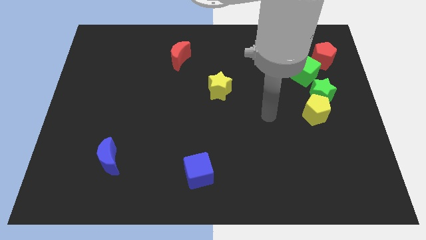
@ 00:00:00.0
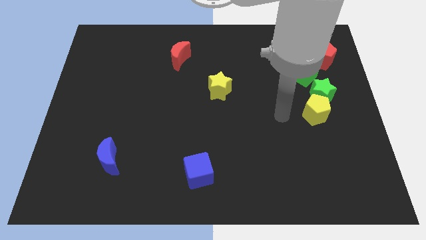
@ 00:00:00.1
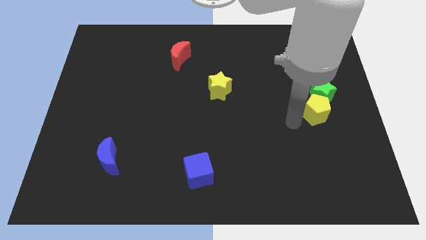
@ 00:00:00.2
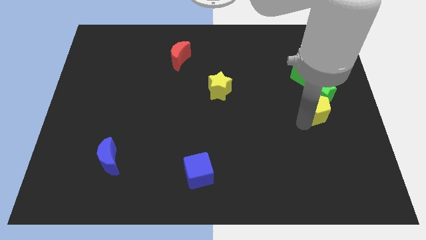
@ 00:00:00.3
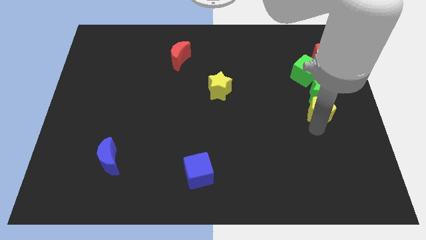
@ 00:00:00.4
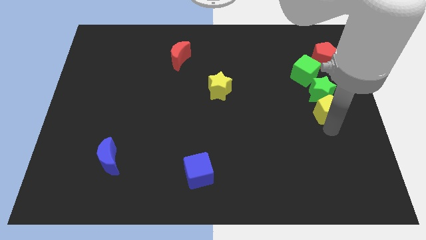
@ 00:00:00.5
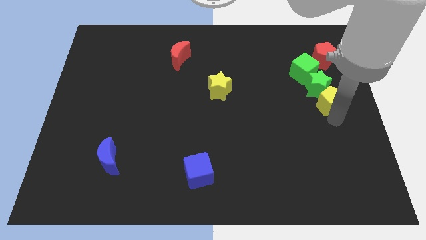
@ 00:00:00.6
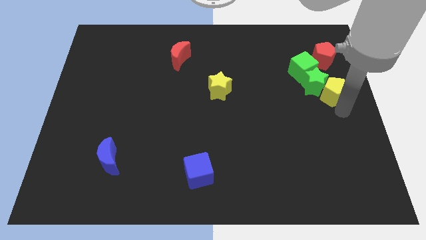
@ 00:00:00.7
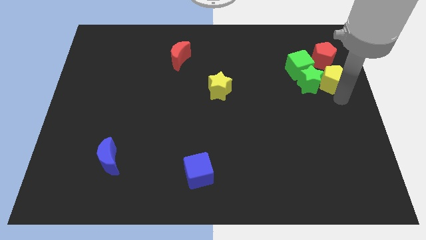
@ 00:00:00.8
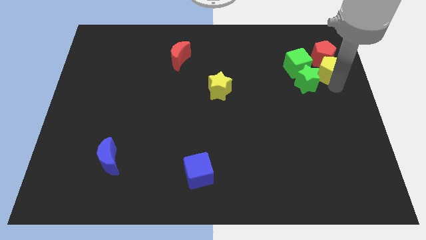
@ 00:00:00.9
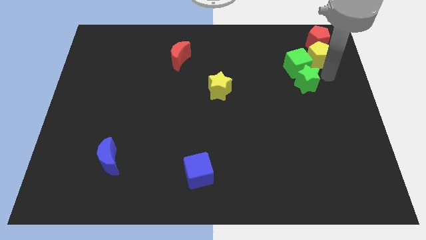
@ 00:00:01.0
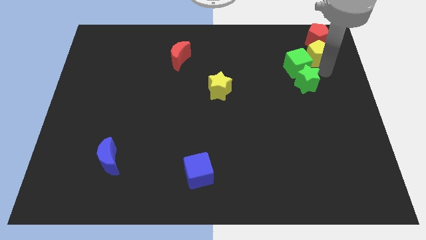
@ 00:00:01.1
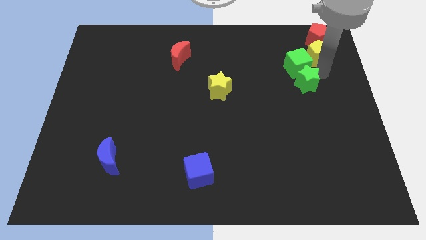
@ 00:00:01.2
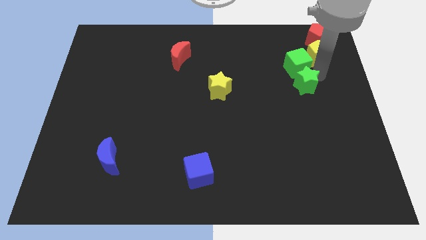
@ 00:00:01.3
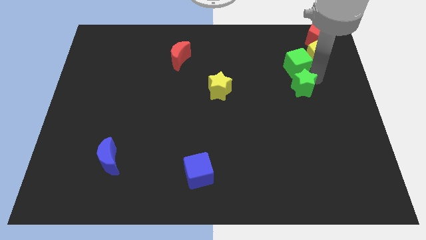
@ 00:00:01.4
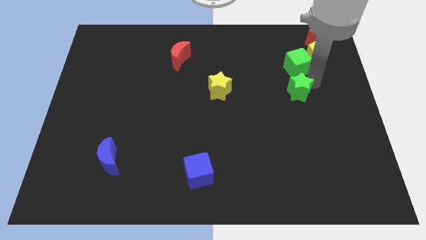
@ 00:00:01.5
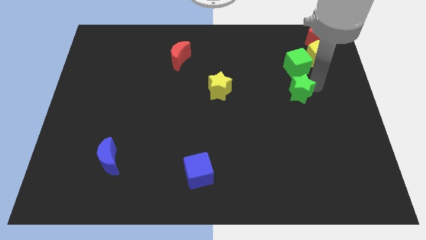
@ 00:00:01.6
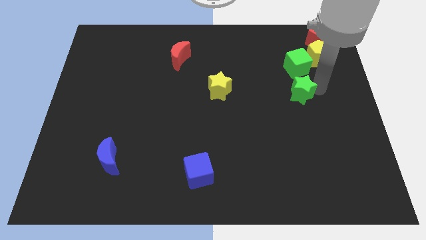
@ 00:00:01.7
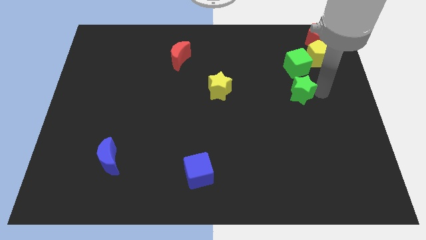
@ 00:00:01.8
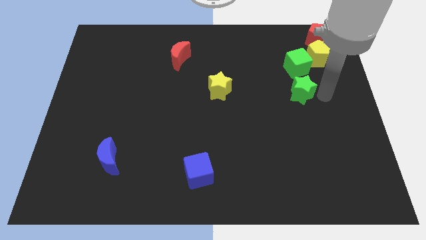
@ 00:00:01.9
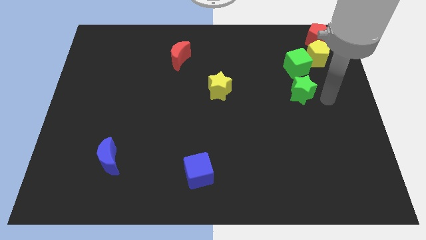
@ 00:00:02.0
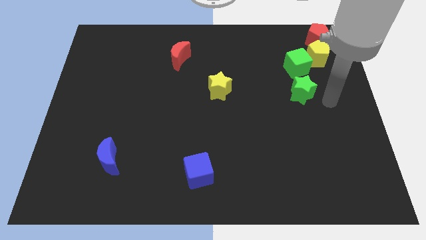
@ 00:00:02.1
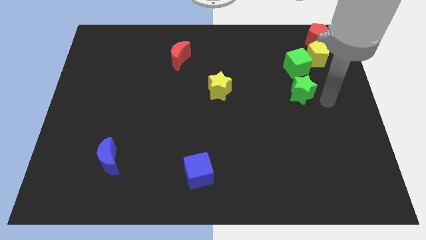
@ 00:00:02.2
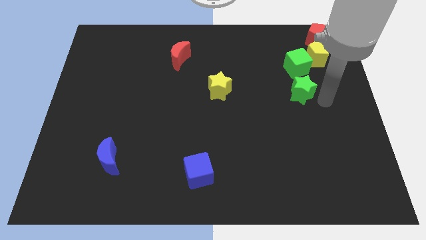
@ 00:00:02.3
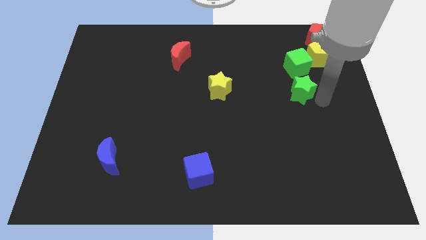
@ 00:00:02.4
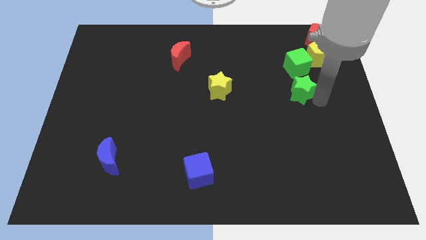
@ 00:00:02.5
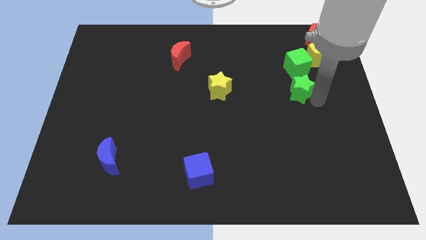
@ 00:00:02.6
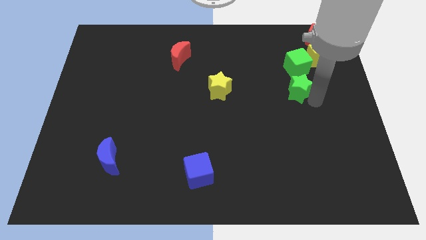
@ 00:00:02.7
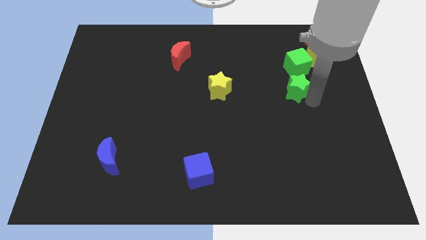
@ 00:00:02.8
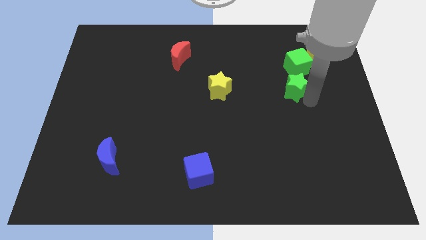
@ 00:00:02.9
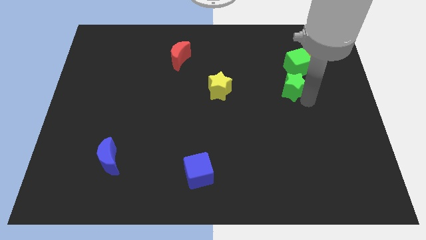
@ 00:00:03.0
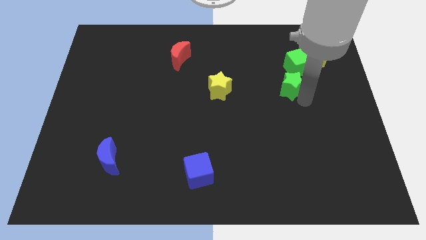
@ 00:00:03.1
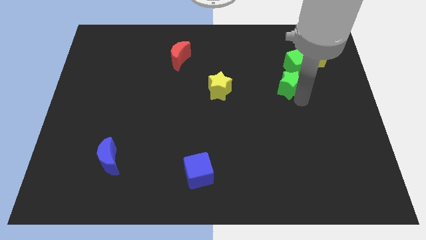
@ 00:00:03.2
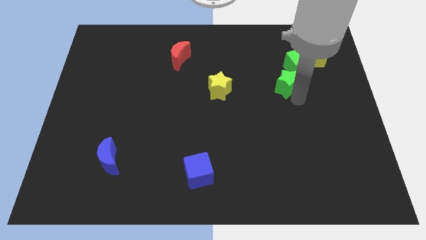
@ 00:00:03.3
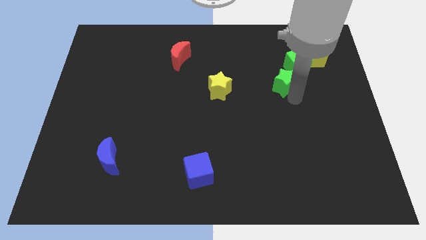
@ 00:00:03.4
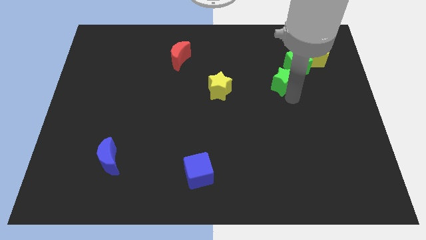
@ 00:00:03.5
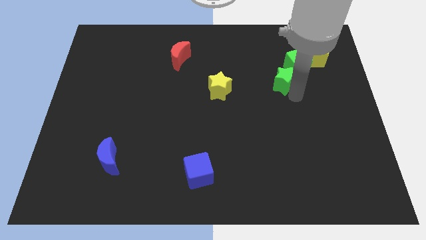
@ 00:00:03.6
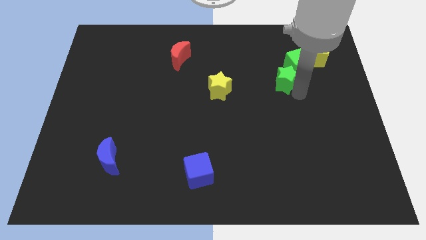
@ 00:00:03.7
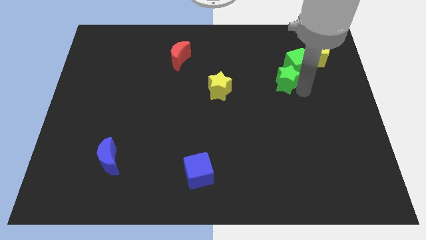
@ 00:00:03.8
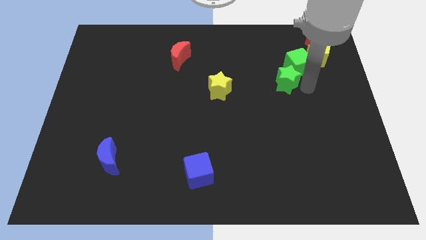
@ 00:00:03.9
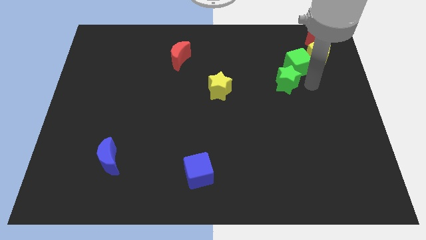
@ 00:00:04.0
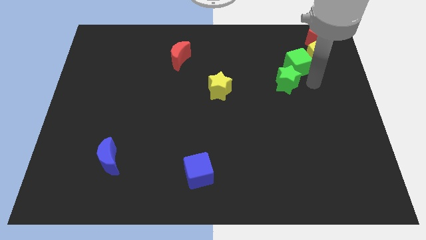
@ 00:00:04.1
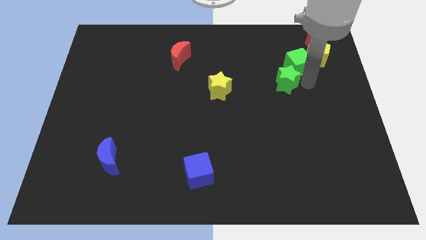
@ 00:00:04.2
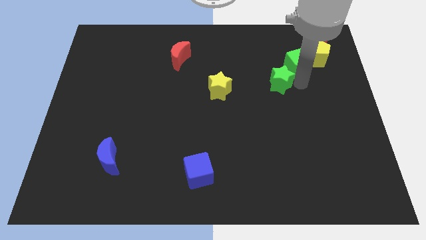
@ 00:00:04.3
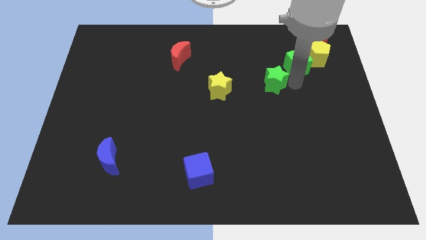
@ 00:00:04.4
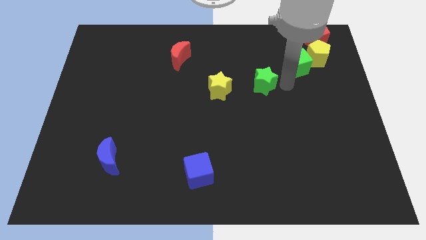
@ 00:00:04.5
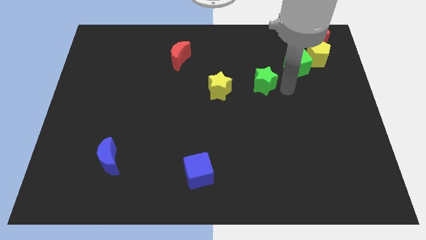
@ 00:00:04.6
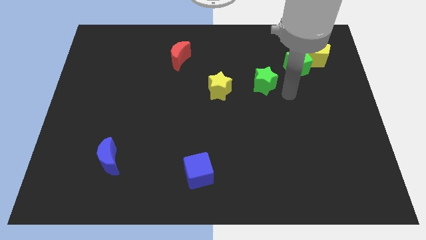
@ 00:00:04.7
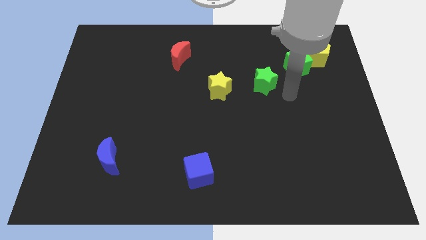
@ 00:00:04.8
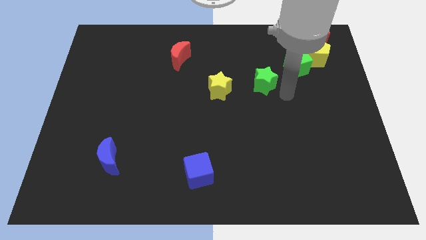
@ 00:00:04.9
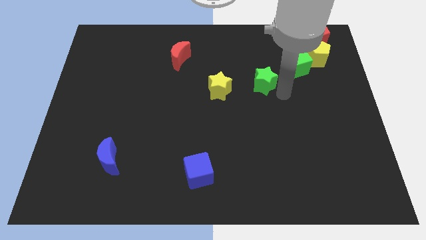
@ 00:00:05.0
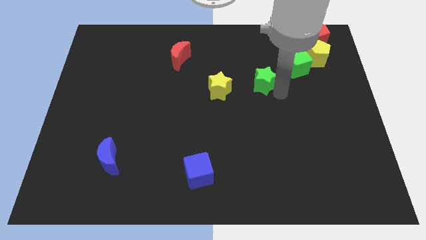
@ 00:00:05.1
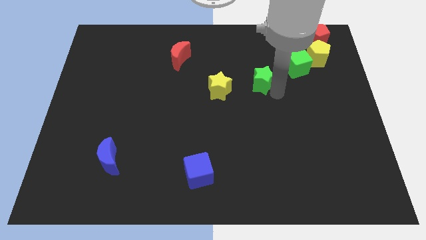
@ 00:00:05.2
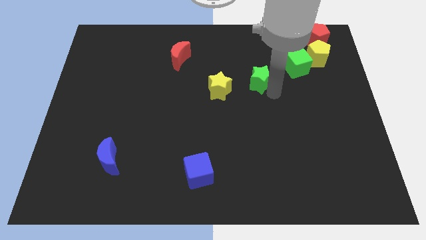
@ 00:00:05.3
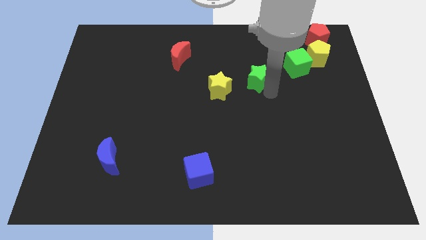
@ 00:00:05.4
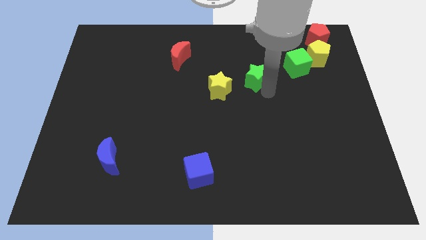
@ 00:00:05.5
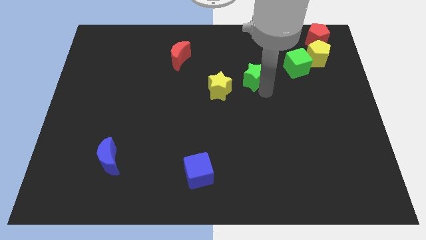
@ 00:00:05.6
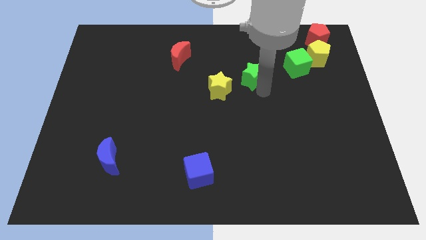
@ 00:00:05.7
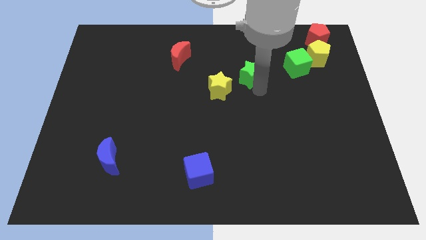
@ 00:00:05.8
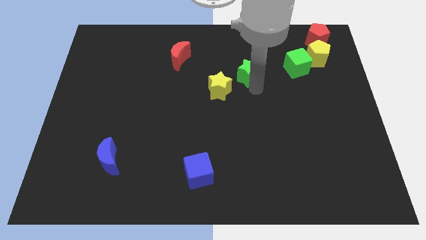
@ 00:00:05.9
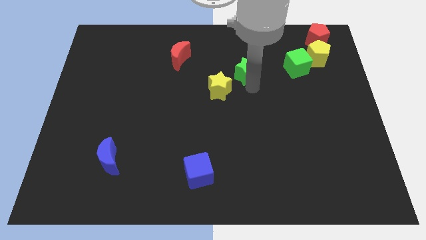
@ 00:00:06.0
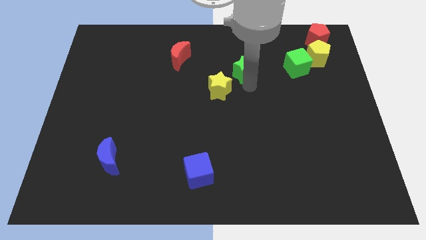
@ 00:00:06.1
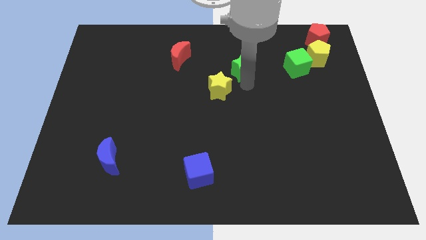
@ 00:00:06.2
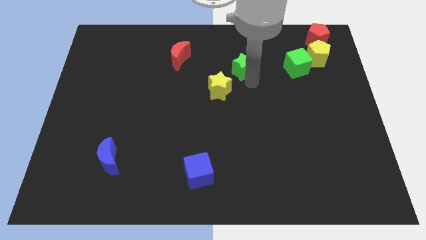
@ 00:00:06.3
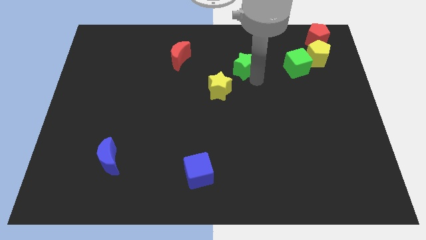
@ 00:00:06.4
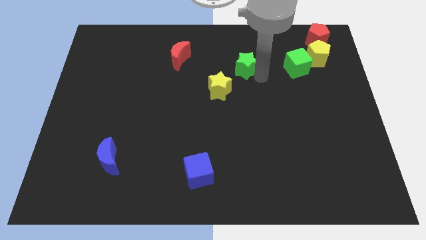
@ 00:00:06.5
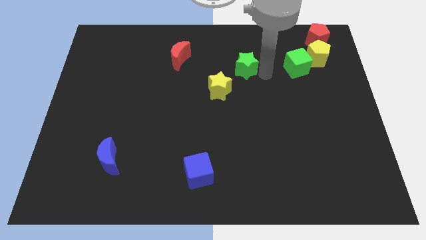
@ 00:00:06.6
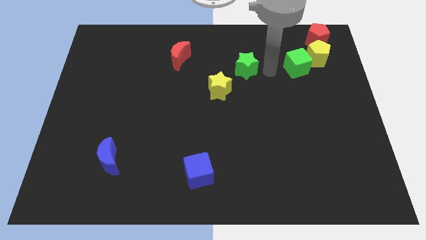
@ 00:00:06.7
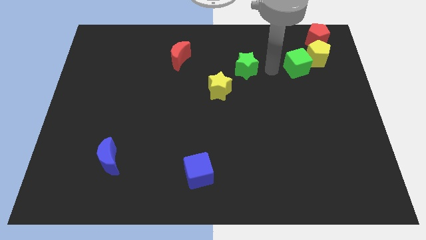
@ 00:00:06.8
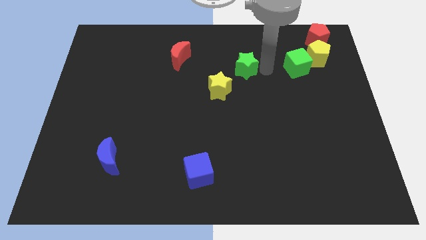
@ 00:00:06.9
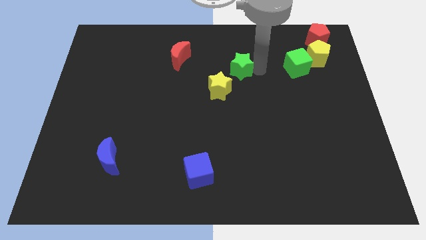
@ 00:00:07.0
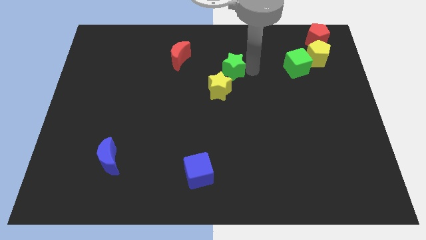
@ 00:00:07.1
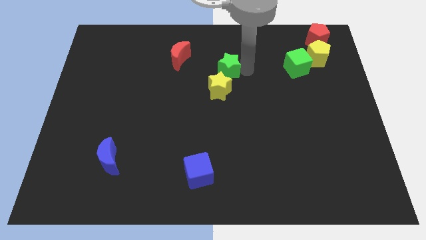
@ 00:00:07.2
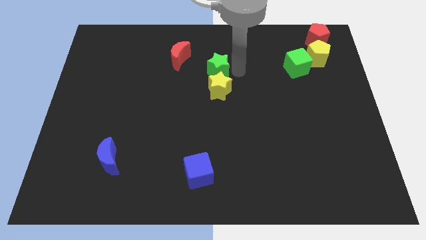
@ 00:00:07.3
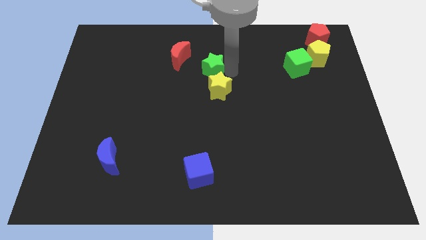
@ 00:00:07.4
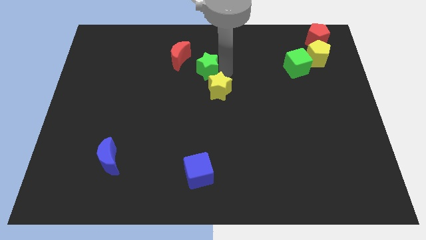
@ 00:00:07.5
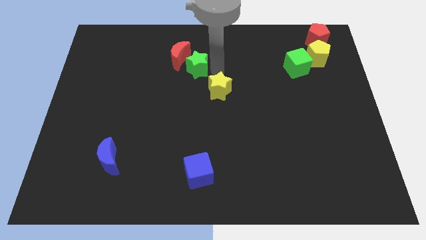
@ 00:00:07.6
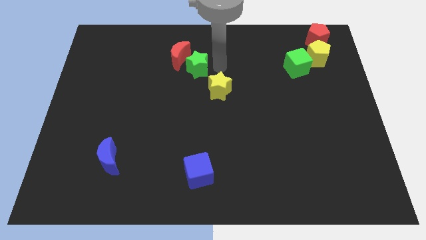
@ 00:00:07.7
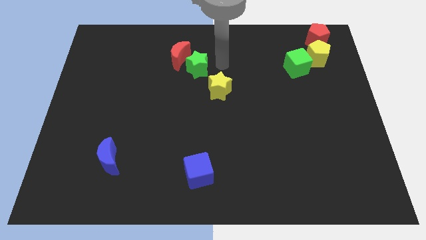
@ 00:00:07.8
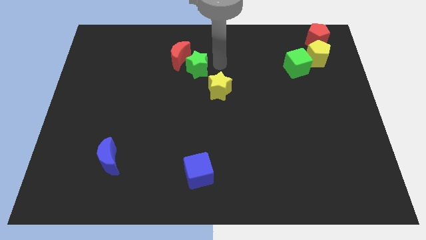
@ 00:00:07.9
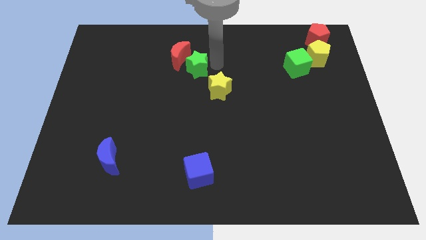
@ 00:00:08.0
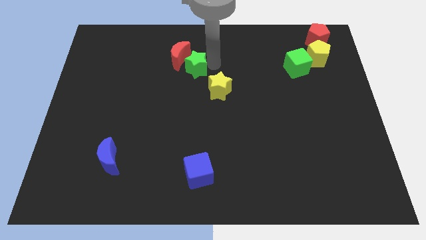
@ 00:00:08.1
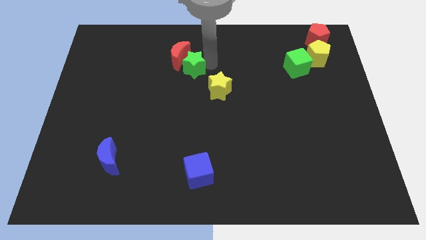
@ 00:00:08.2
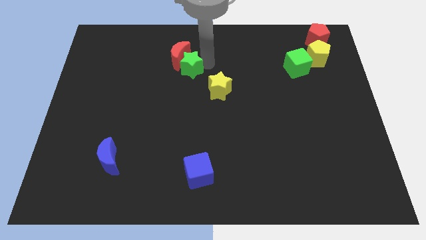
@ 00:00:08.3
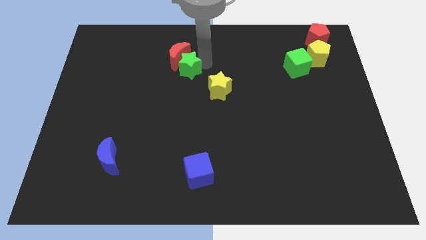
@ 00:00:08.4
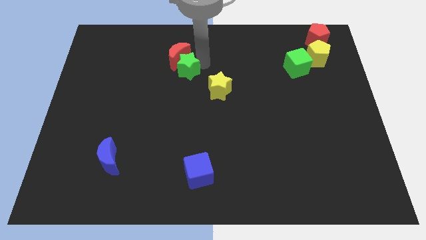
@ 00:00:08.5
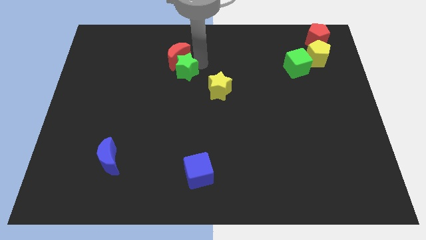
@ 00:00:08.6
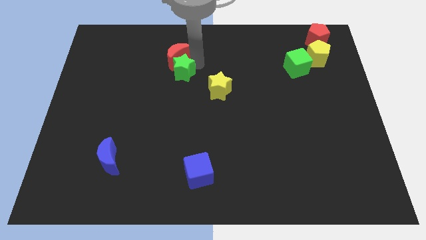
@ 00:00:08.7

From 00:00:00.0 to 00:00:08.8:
slide the green star to the bottom left of the red moon
